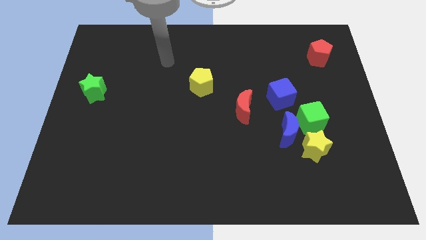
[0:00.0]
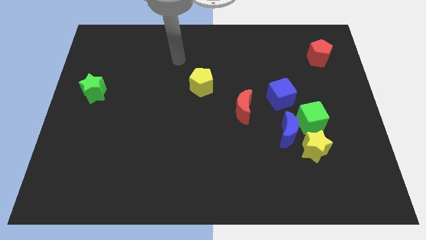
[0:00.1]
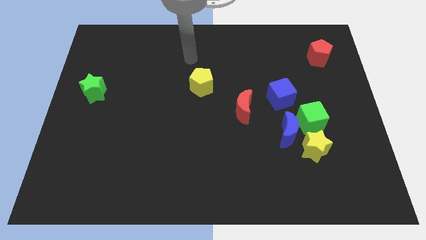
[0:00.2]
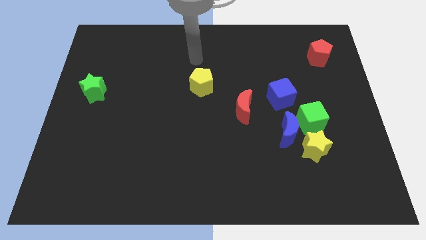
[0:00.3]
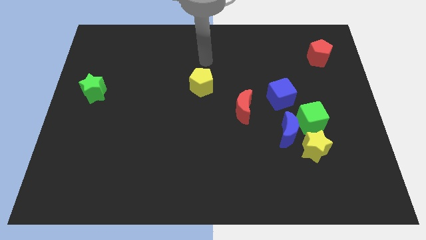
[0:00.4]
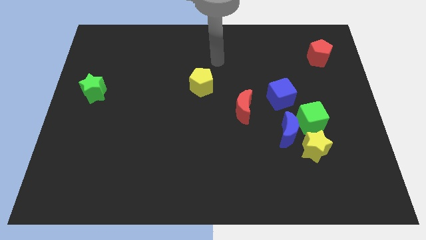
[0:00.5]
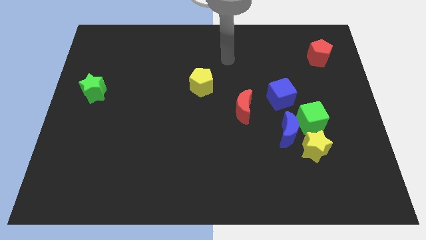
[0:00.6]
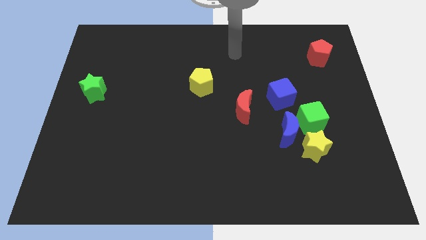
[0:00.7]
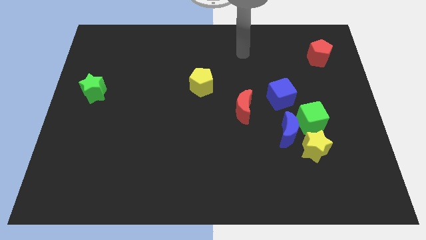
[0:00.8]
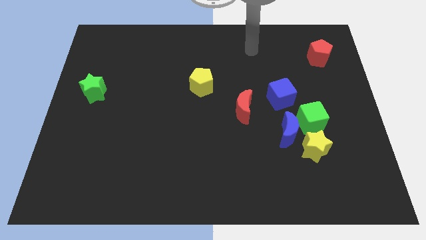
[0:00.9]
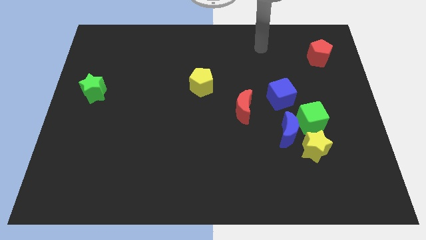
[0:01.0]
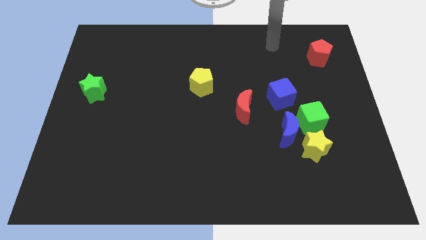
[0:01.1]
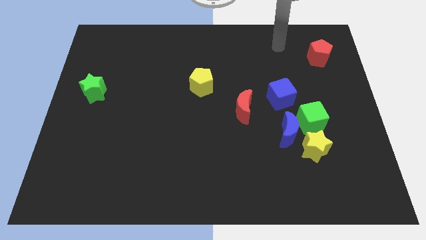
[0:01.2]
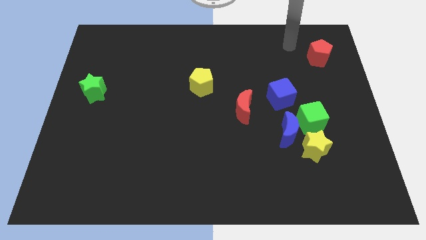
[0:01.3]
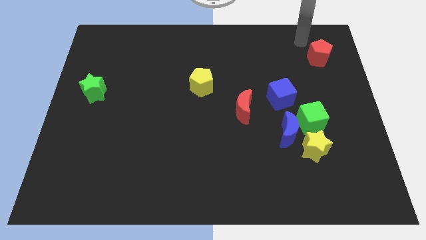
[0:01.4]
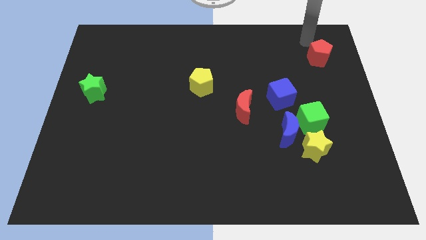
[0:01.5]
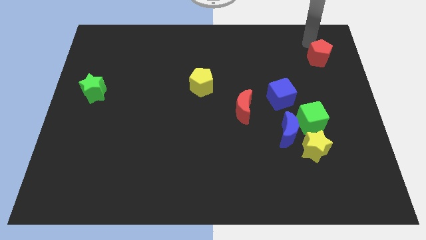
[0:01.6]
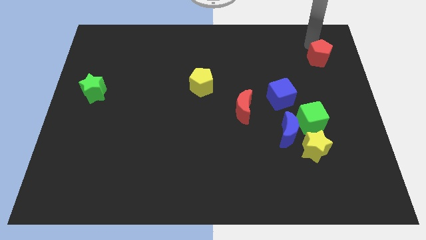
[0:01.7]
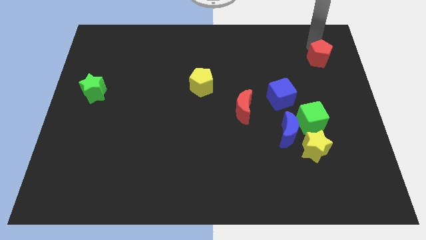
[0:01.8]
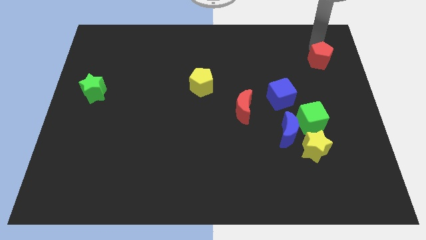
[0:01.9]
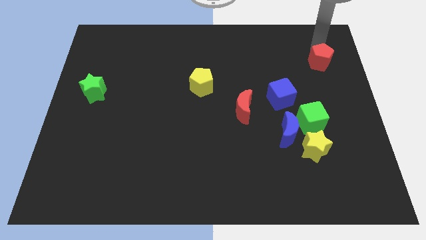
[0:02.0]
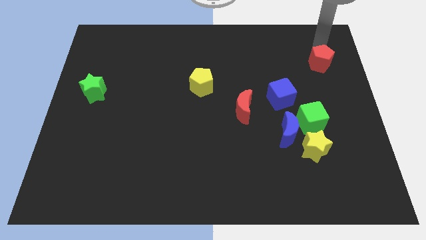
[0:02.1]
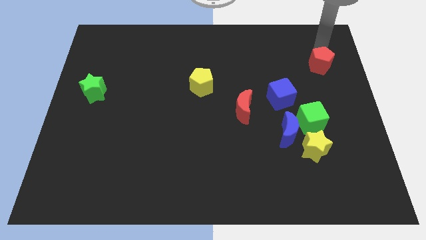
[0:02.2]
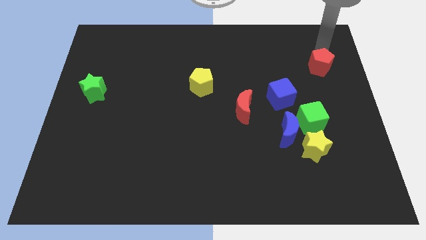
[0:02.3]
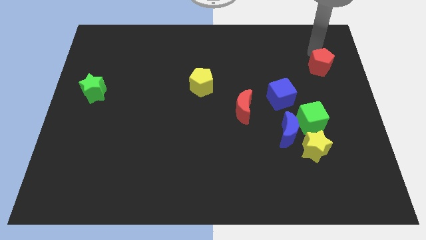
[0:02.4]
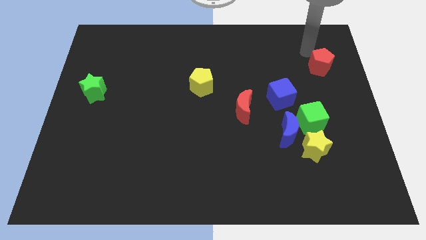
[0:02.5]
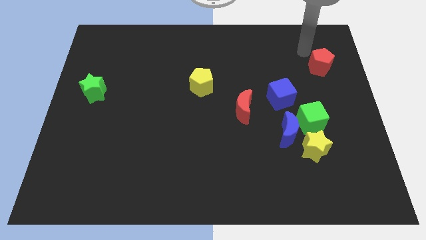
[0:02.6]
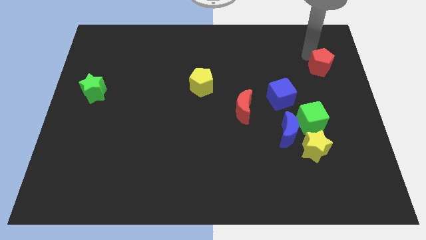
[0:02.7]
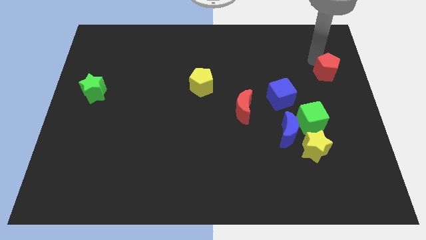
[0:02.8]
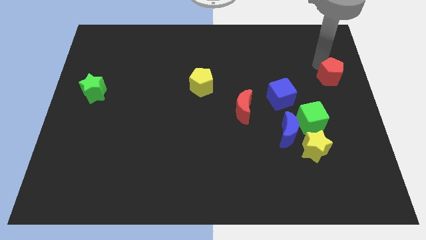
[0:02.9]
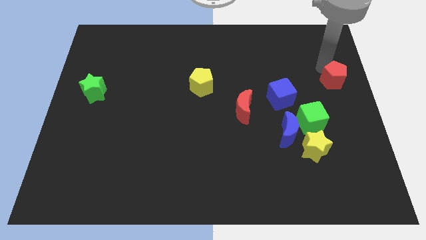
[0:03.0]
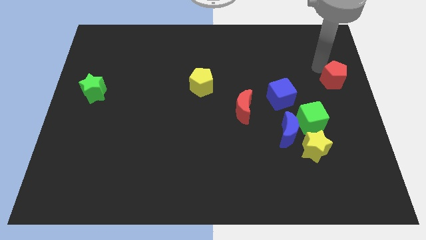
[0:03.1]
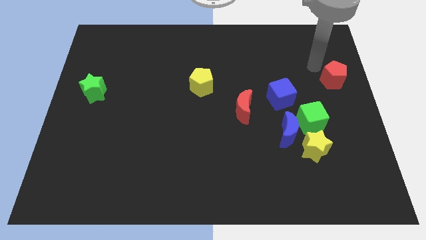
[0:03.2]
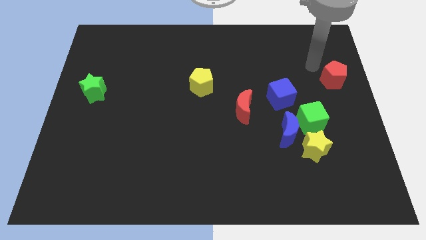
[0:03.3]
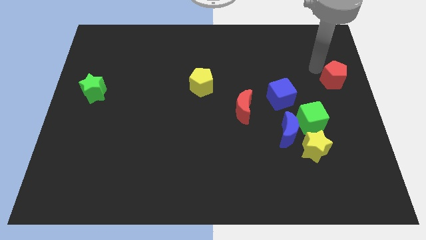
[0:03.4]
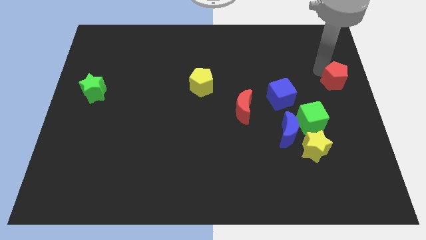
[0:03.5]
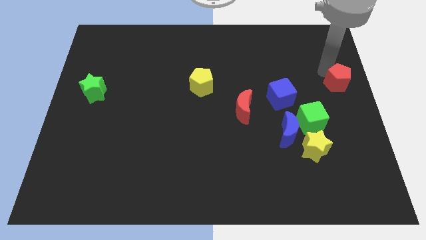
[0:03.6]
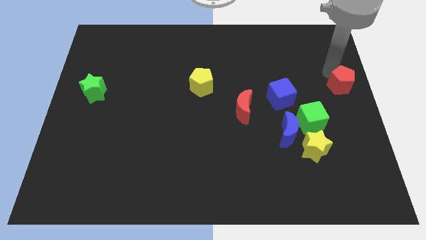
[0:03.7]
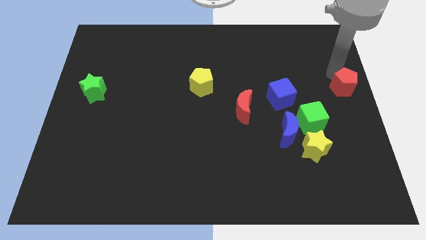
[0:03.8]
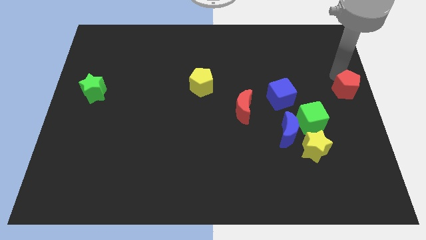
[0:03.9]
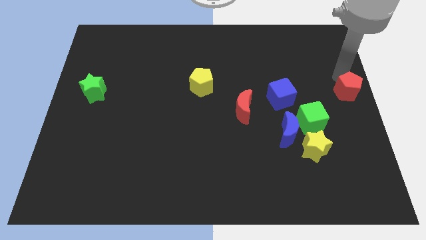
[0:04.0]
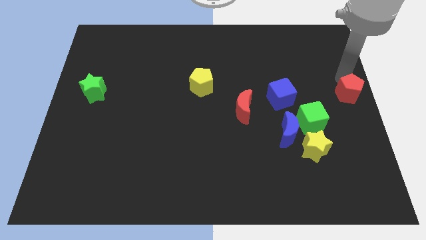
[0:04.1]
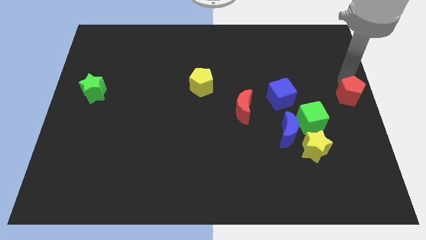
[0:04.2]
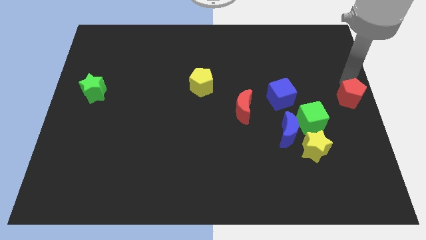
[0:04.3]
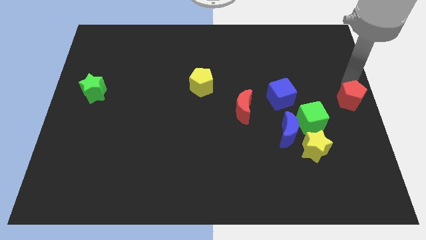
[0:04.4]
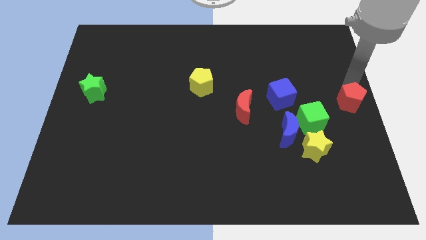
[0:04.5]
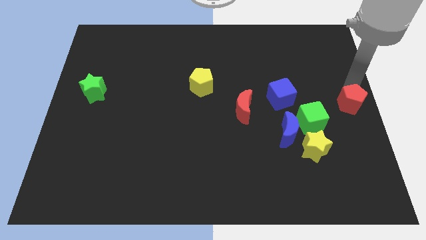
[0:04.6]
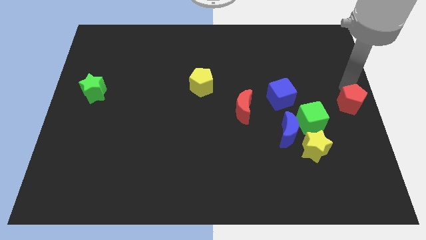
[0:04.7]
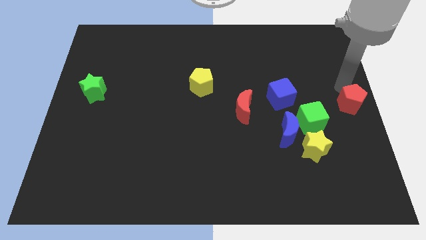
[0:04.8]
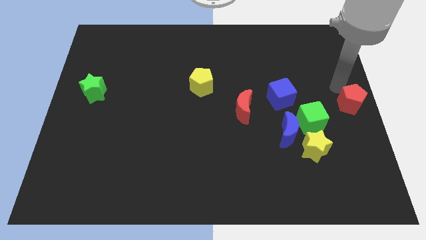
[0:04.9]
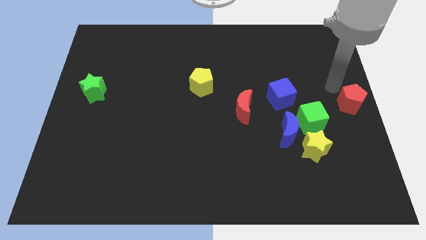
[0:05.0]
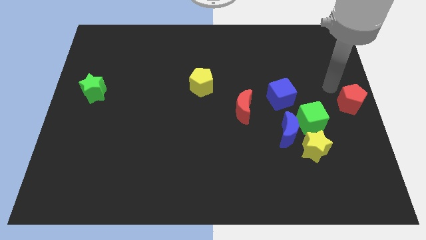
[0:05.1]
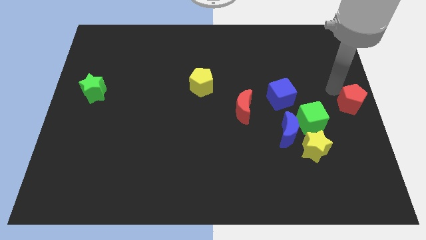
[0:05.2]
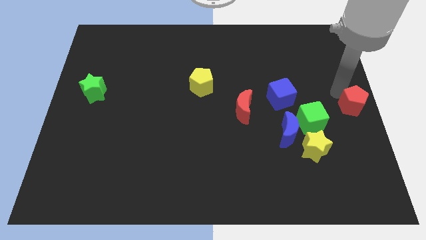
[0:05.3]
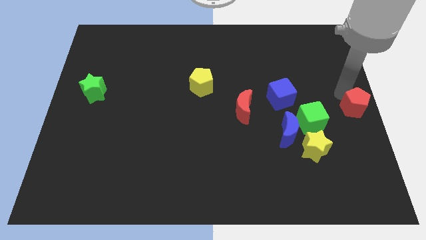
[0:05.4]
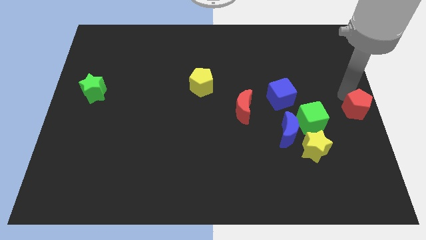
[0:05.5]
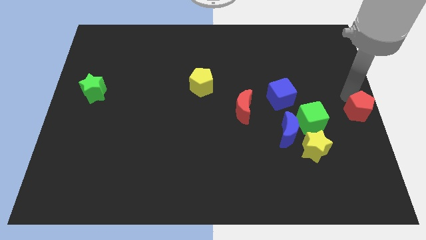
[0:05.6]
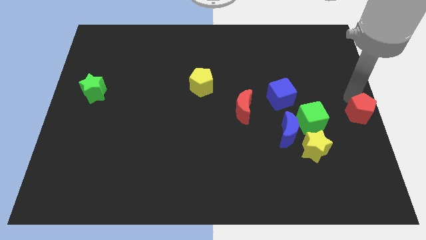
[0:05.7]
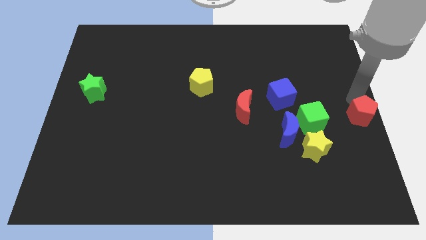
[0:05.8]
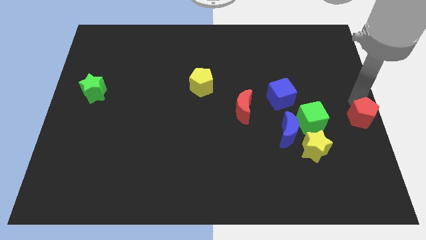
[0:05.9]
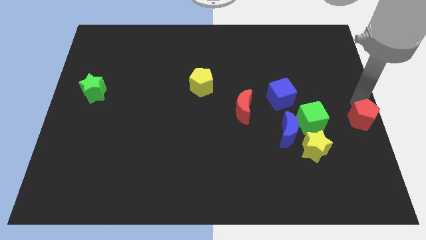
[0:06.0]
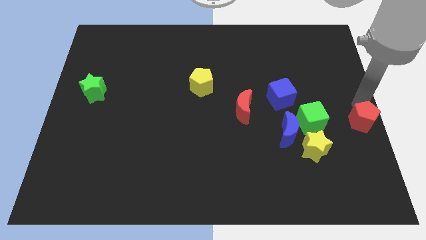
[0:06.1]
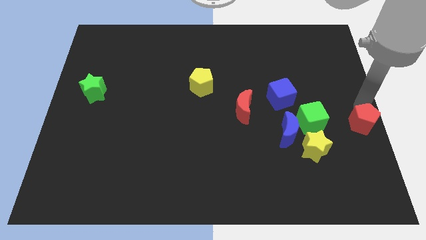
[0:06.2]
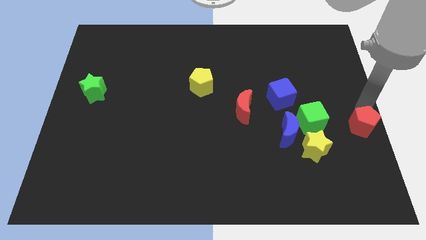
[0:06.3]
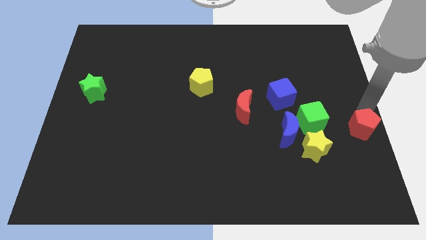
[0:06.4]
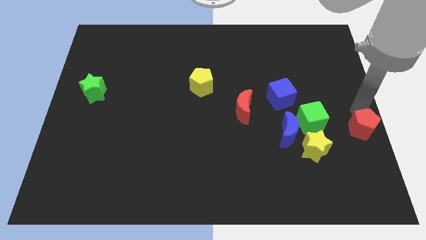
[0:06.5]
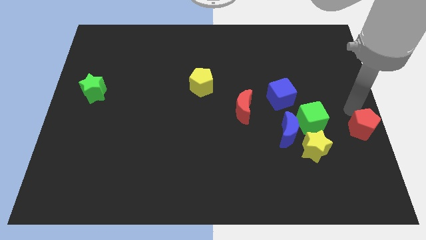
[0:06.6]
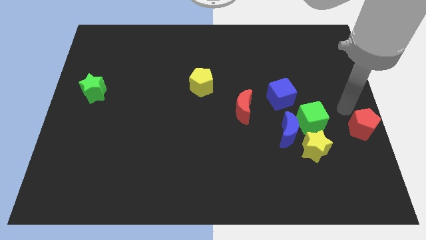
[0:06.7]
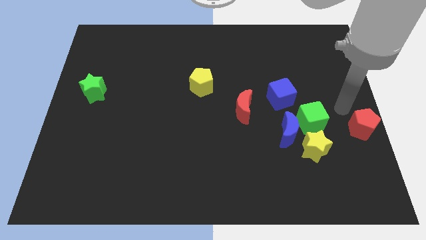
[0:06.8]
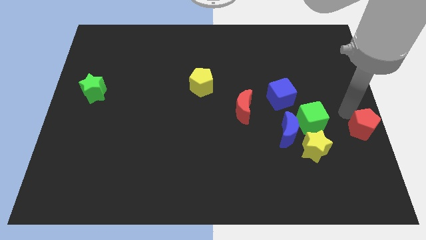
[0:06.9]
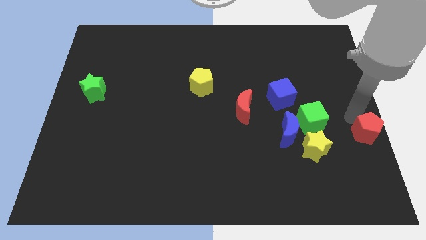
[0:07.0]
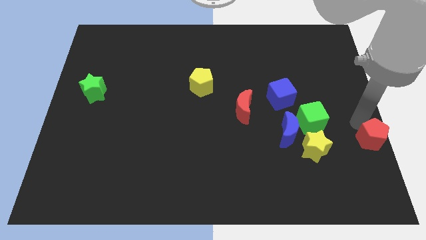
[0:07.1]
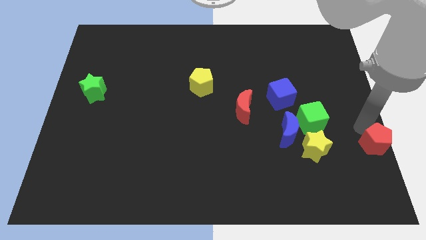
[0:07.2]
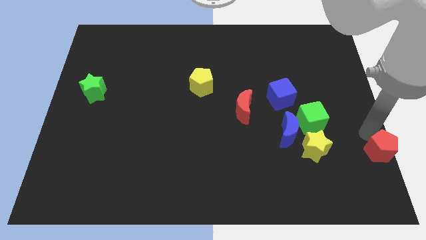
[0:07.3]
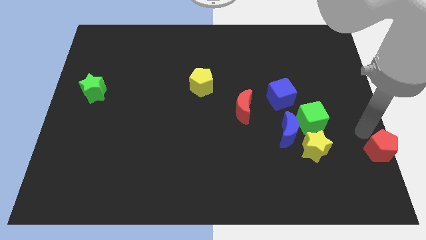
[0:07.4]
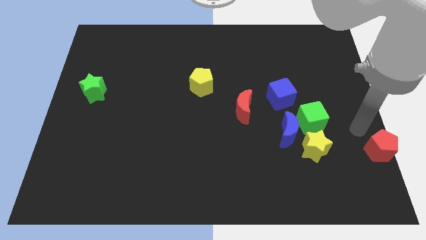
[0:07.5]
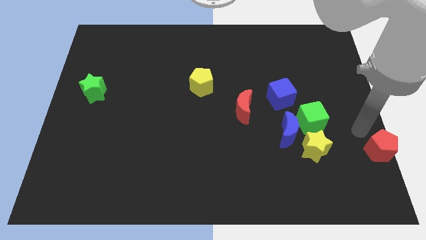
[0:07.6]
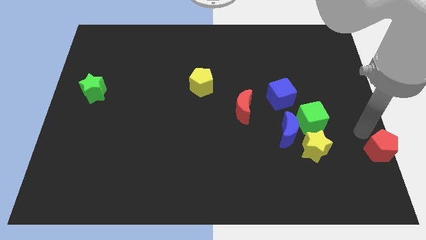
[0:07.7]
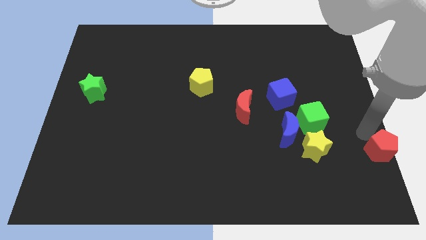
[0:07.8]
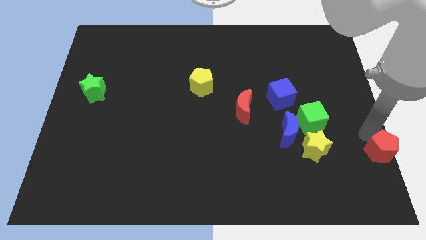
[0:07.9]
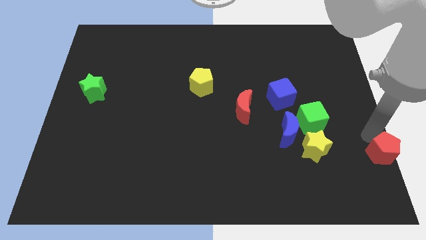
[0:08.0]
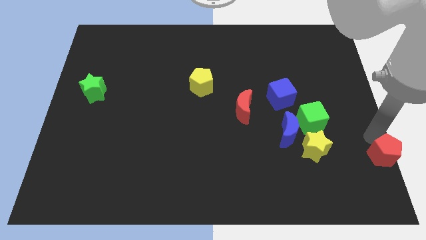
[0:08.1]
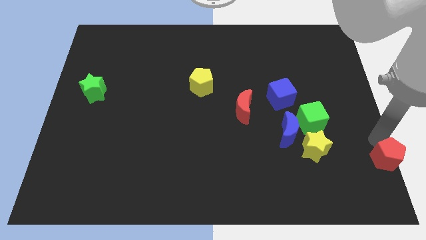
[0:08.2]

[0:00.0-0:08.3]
move the red pentagon to the bottom right
